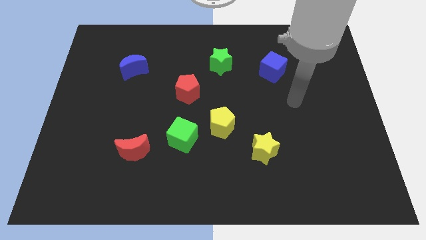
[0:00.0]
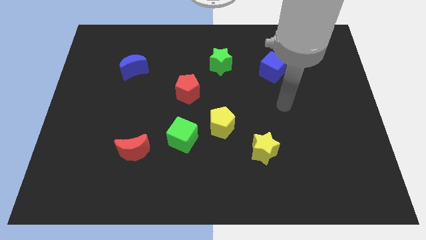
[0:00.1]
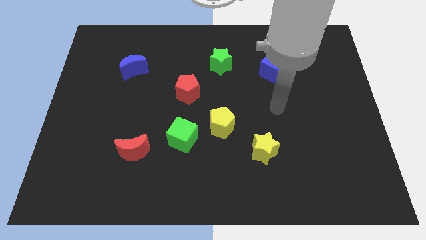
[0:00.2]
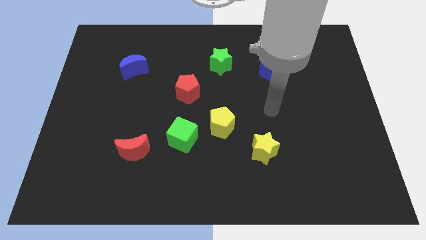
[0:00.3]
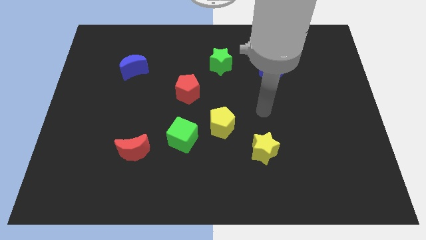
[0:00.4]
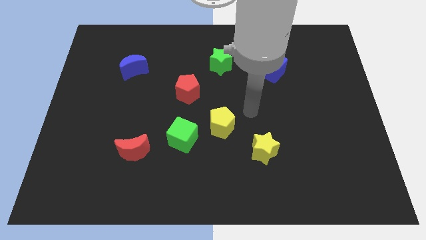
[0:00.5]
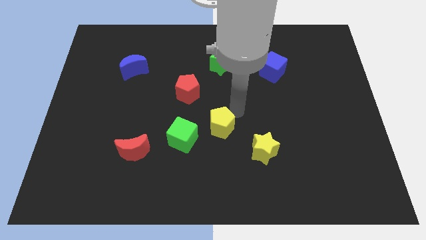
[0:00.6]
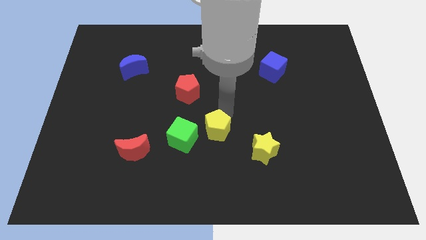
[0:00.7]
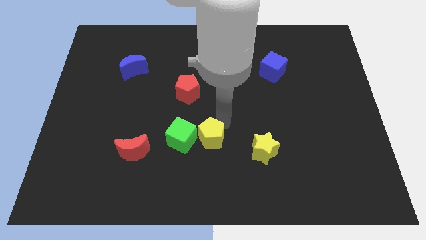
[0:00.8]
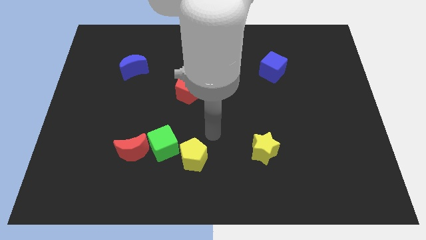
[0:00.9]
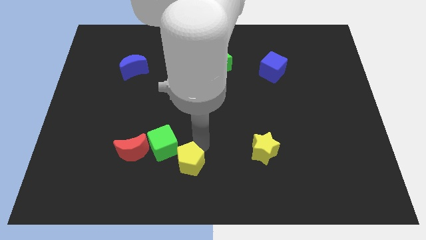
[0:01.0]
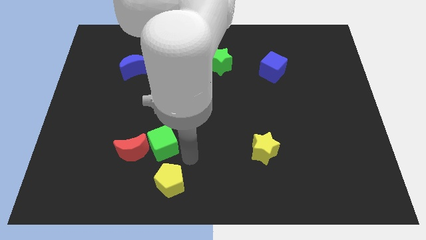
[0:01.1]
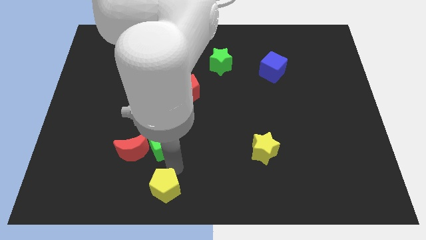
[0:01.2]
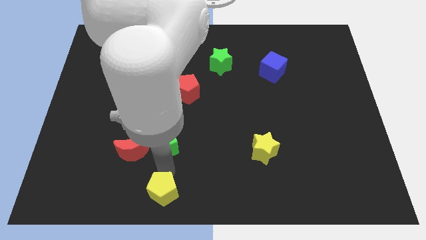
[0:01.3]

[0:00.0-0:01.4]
pull the green cube apart from the yellow pentagon

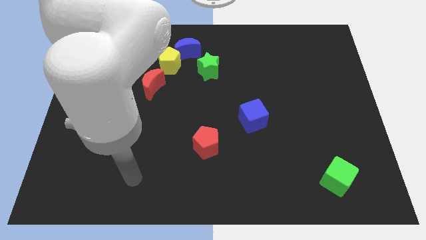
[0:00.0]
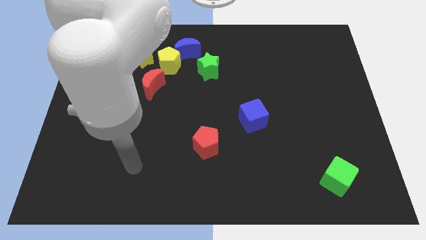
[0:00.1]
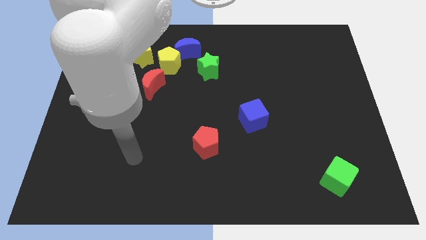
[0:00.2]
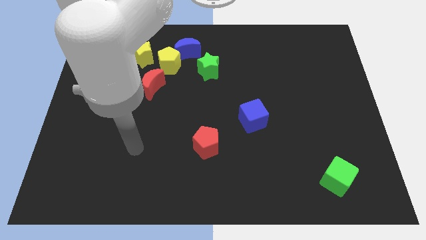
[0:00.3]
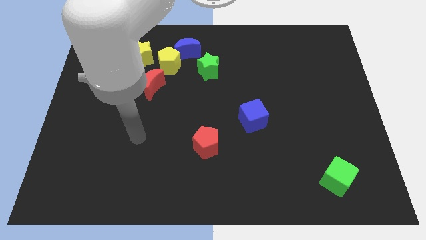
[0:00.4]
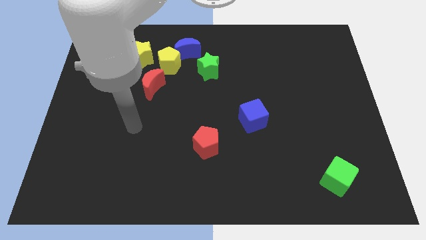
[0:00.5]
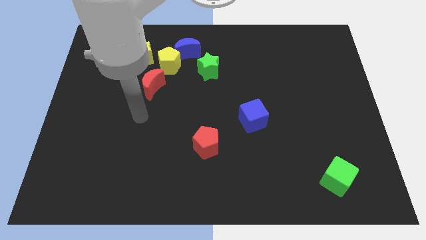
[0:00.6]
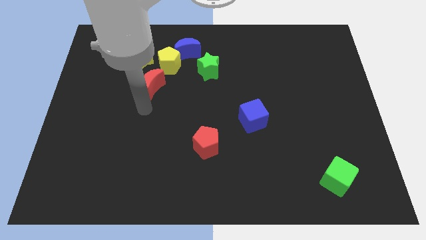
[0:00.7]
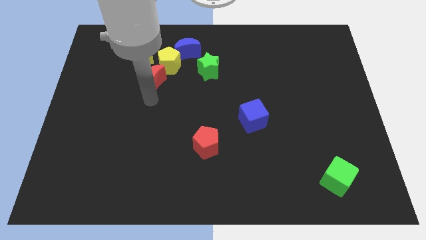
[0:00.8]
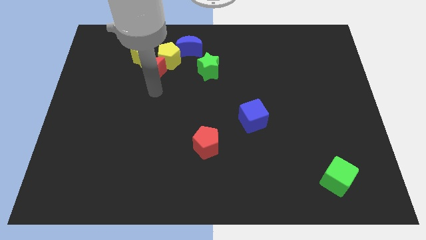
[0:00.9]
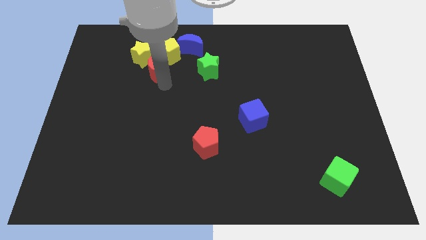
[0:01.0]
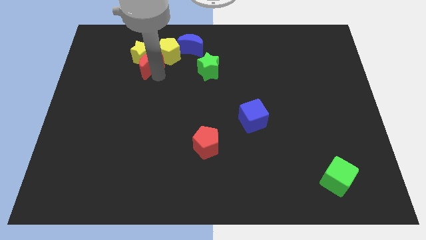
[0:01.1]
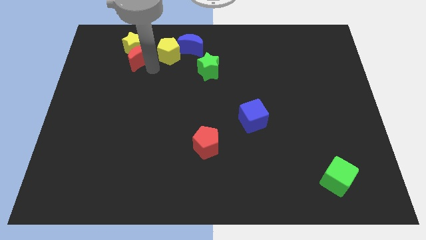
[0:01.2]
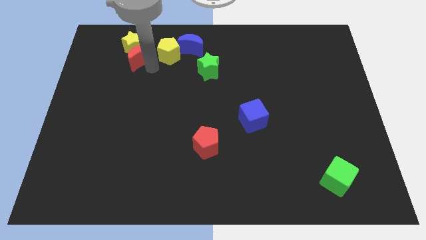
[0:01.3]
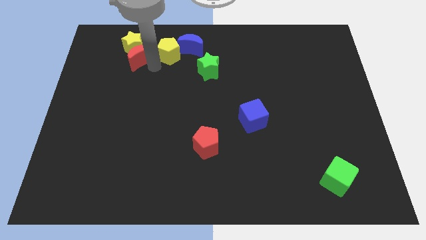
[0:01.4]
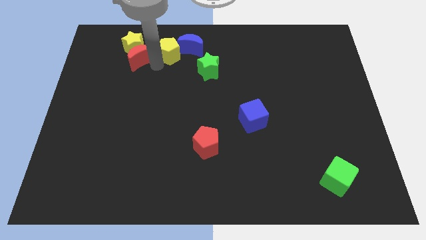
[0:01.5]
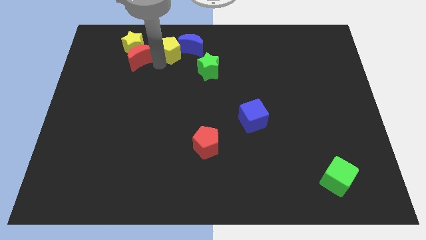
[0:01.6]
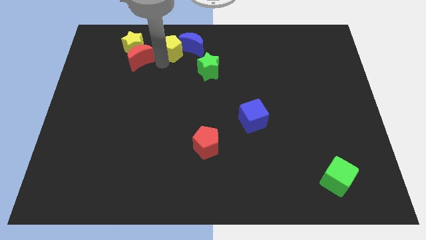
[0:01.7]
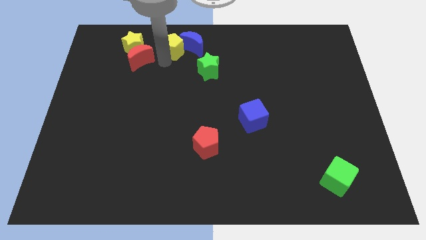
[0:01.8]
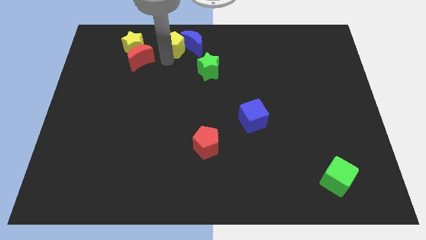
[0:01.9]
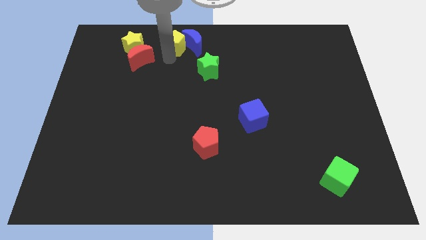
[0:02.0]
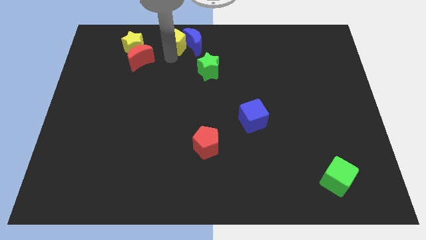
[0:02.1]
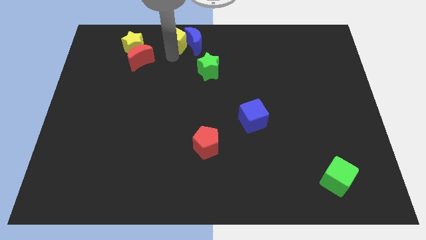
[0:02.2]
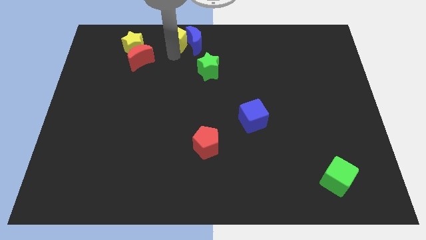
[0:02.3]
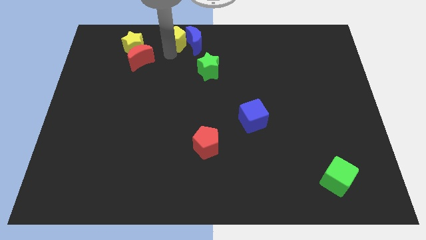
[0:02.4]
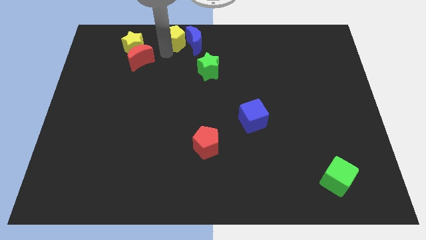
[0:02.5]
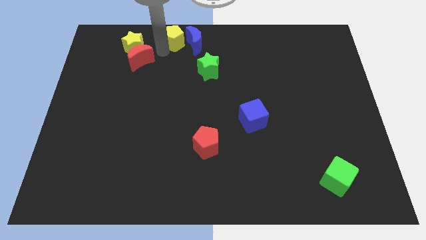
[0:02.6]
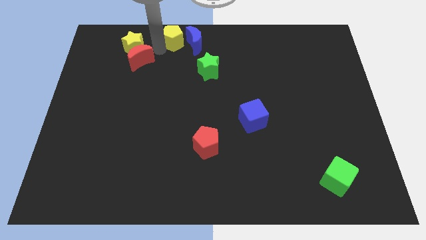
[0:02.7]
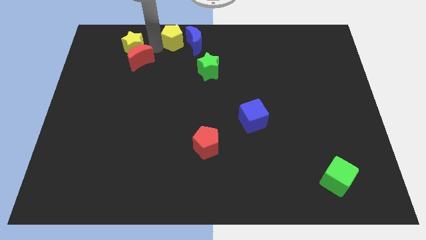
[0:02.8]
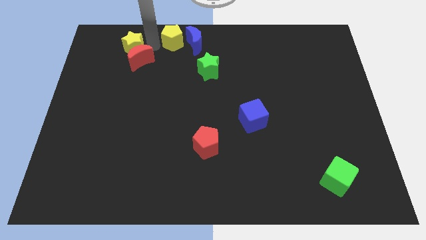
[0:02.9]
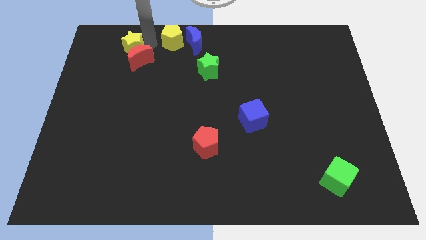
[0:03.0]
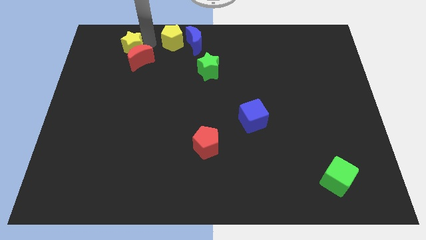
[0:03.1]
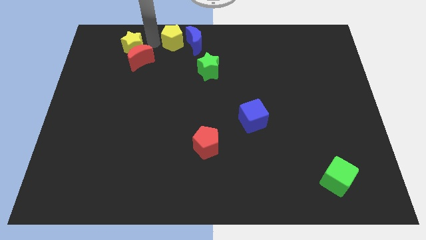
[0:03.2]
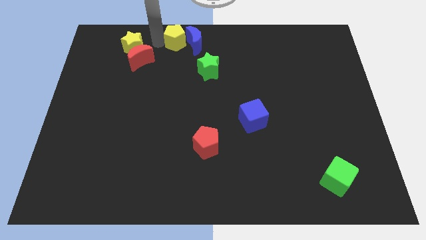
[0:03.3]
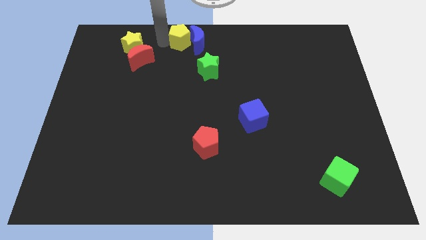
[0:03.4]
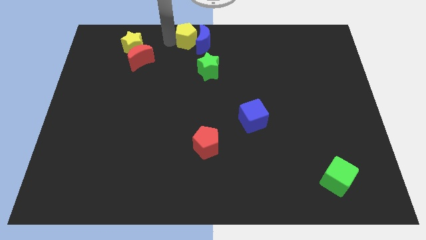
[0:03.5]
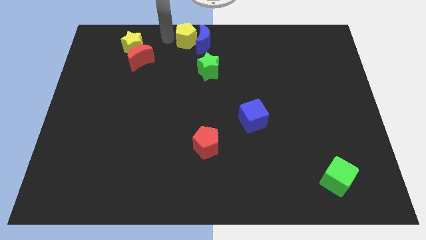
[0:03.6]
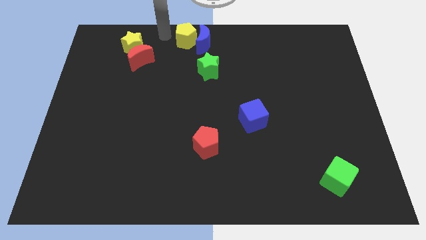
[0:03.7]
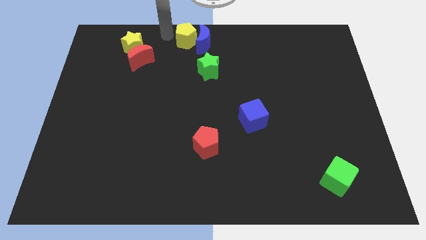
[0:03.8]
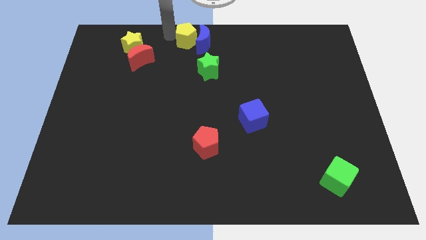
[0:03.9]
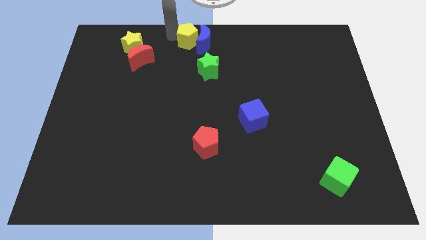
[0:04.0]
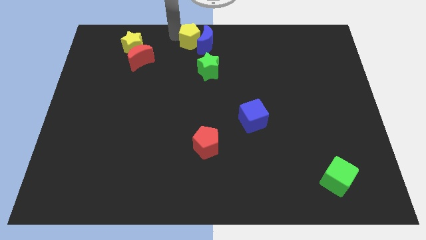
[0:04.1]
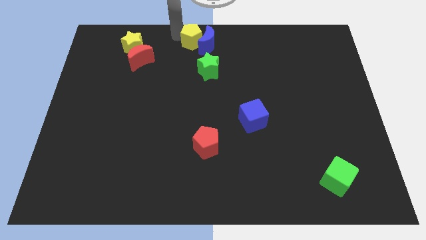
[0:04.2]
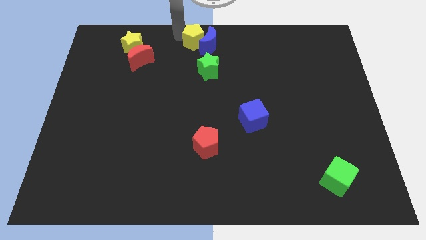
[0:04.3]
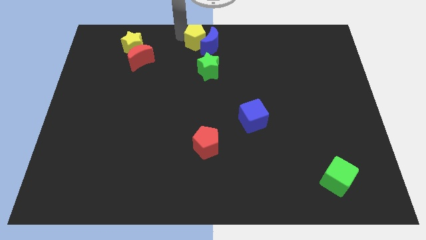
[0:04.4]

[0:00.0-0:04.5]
separate the yellow pentagon from the group

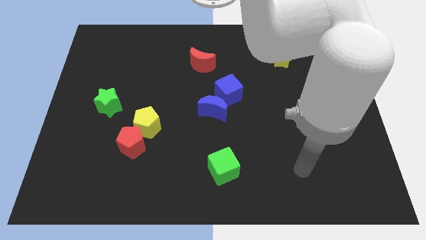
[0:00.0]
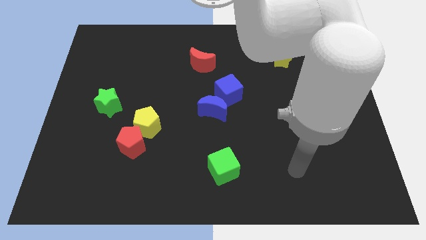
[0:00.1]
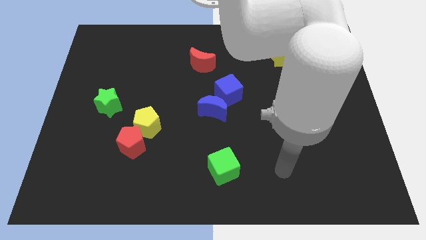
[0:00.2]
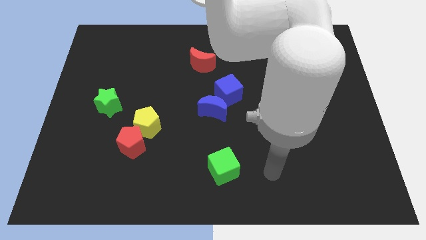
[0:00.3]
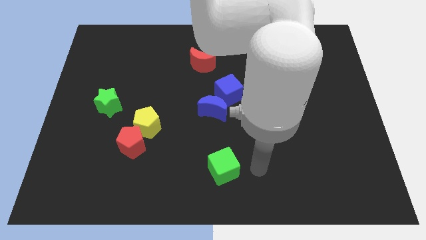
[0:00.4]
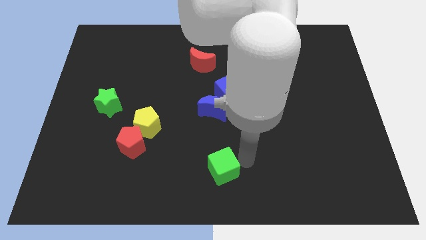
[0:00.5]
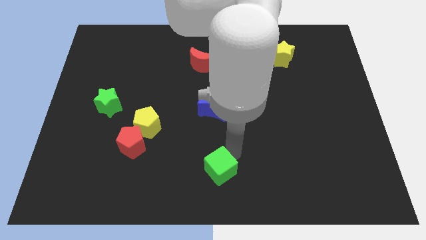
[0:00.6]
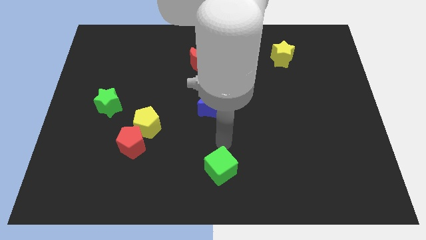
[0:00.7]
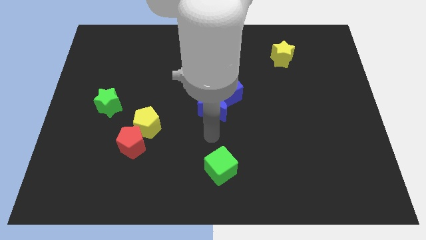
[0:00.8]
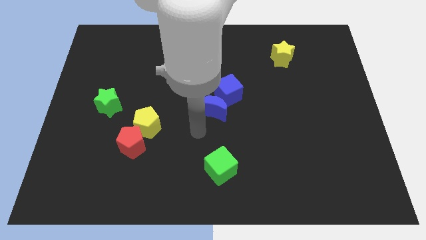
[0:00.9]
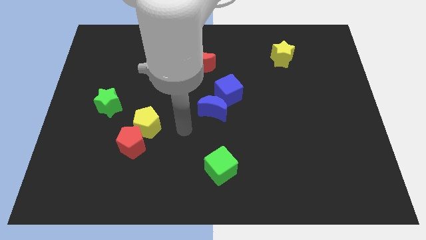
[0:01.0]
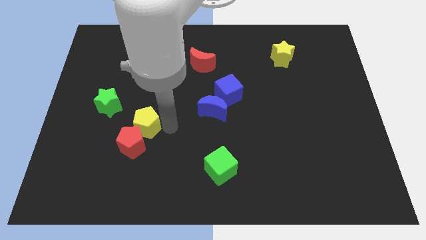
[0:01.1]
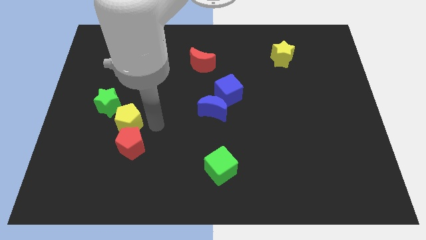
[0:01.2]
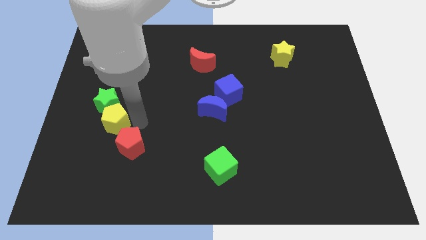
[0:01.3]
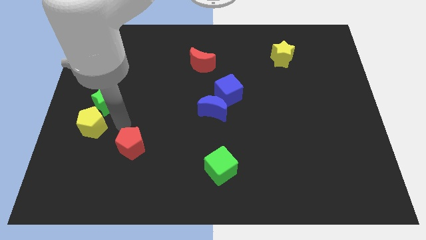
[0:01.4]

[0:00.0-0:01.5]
pull the red pentagon apart from the yellow pentagon

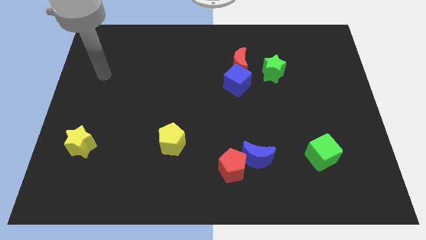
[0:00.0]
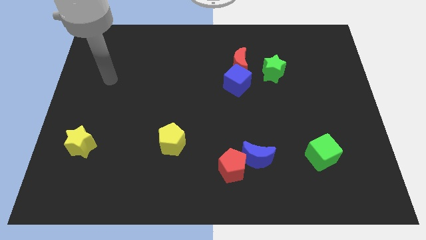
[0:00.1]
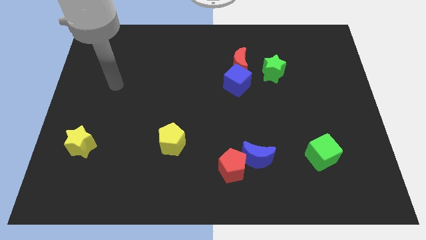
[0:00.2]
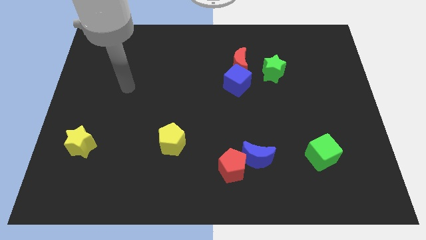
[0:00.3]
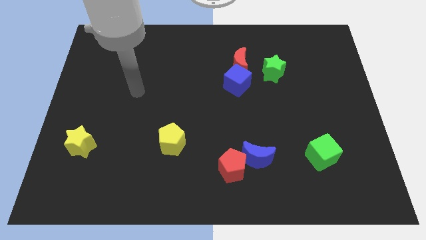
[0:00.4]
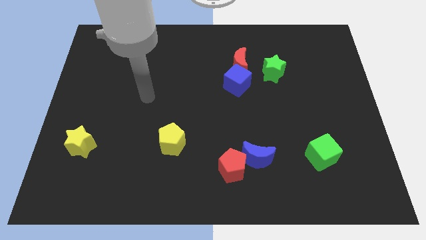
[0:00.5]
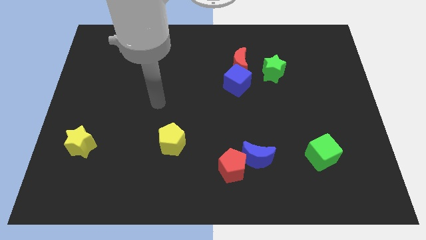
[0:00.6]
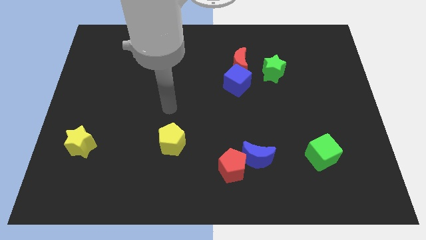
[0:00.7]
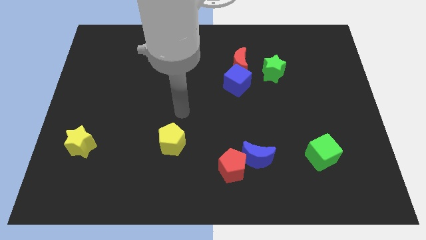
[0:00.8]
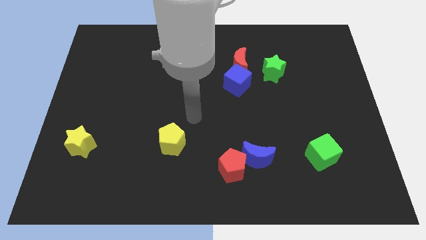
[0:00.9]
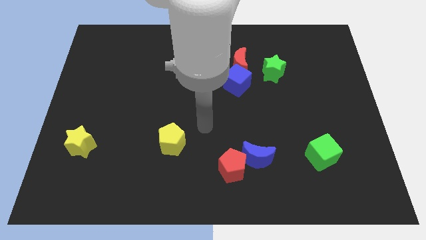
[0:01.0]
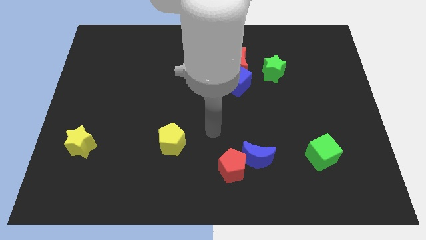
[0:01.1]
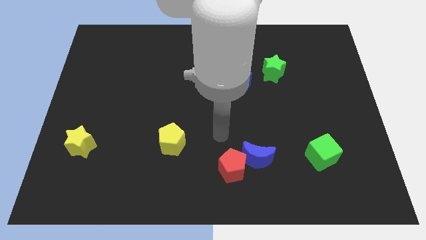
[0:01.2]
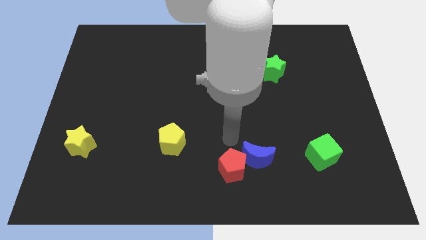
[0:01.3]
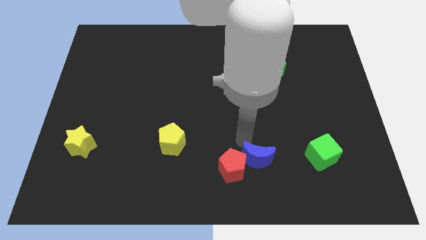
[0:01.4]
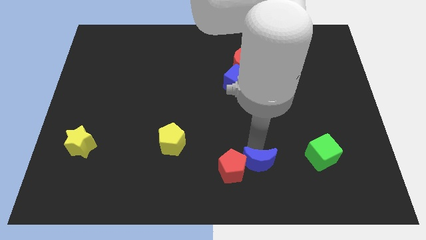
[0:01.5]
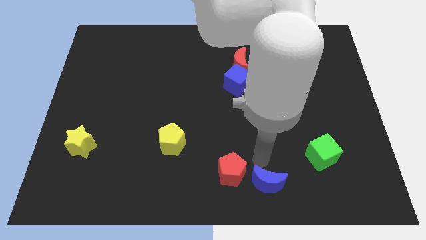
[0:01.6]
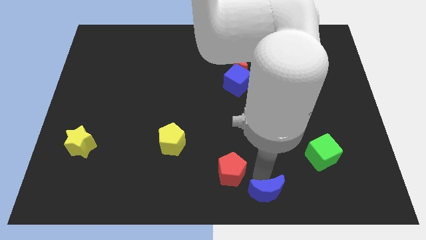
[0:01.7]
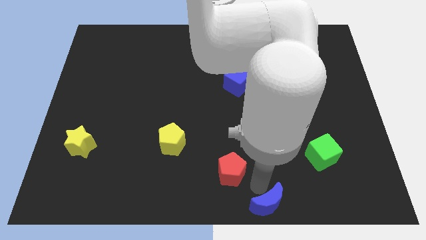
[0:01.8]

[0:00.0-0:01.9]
move the red pentagon away from the blue moon

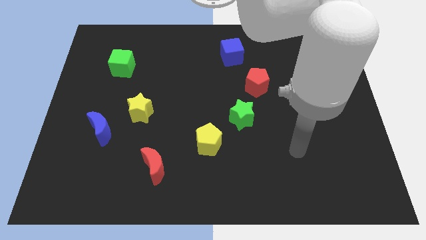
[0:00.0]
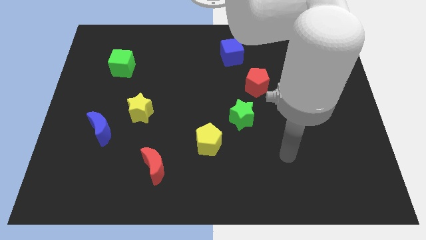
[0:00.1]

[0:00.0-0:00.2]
separate the blue moon from the yellow star
